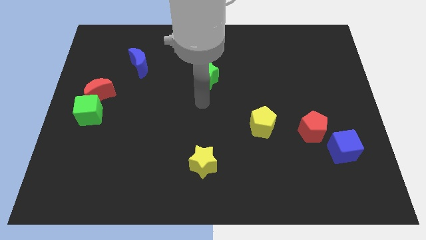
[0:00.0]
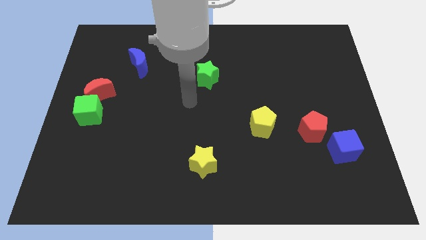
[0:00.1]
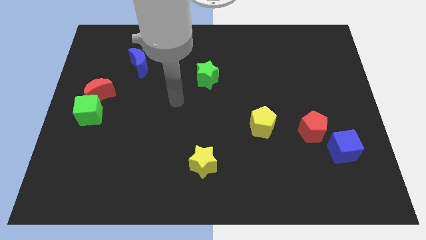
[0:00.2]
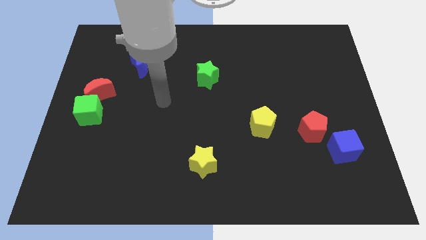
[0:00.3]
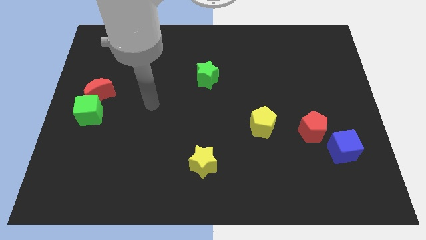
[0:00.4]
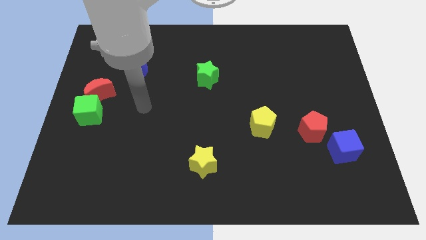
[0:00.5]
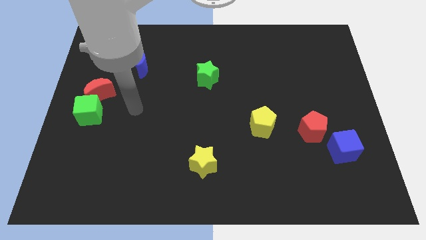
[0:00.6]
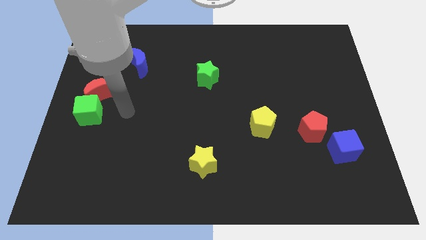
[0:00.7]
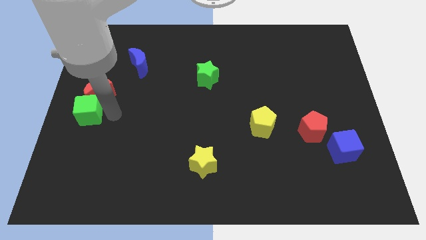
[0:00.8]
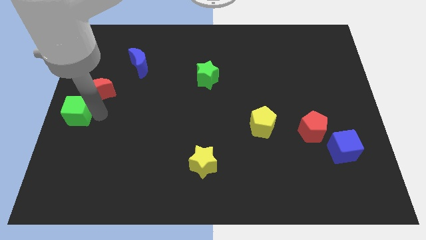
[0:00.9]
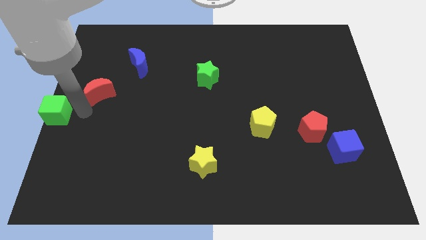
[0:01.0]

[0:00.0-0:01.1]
separate the red moon from the green cube

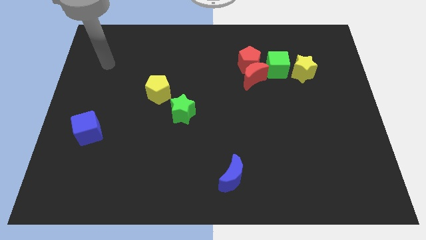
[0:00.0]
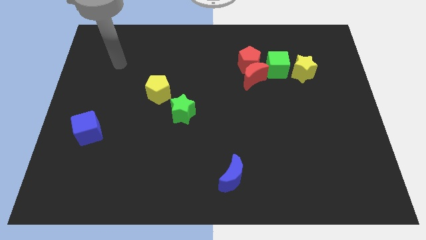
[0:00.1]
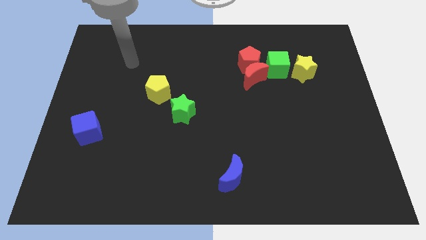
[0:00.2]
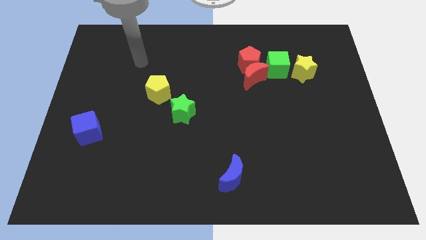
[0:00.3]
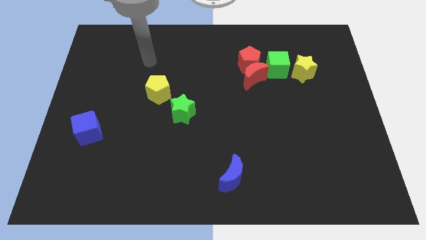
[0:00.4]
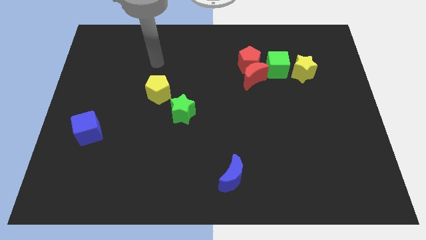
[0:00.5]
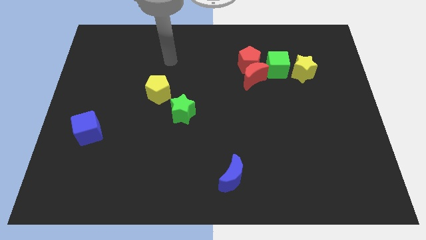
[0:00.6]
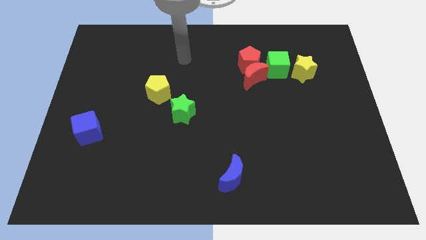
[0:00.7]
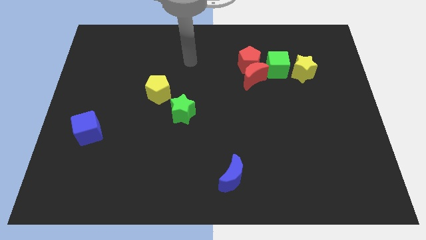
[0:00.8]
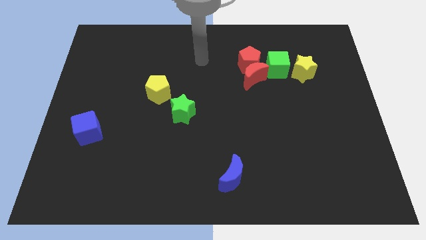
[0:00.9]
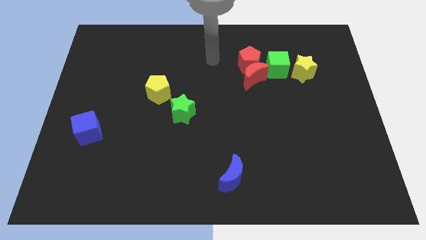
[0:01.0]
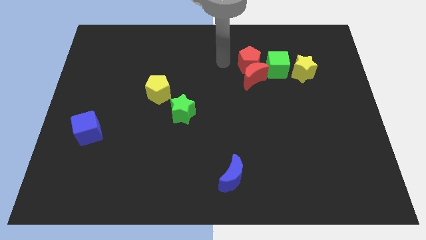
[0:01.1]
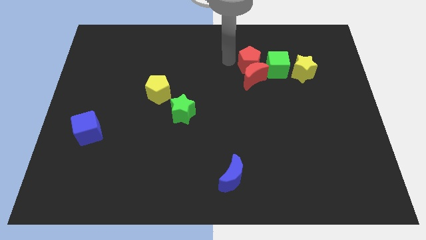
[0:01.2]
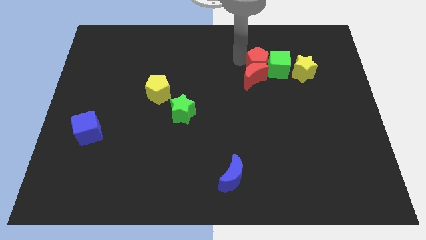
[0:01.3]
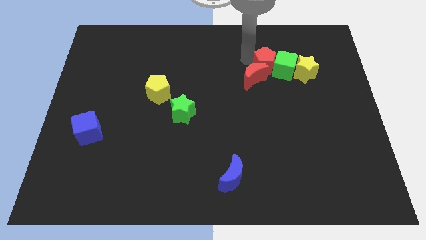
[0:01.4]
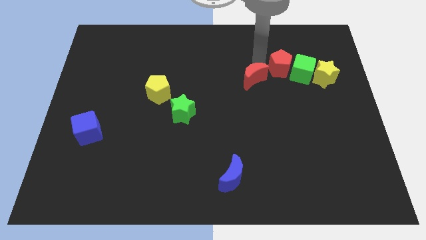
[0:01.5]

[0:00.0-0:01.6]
pull the red moon apart from the red pentagon and green cube

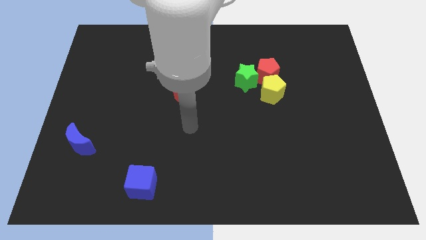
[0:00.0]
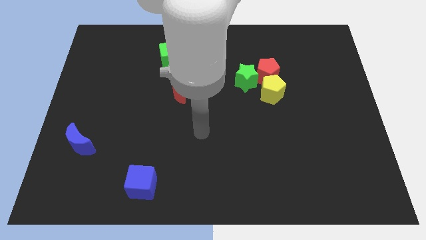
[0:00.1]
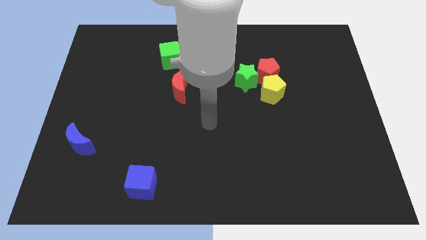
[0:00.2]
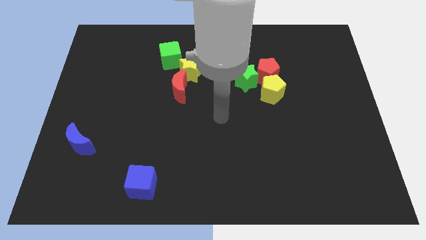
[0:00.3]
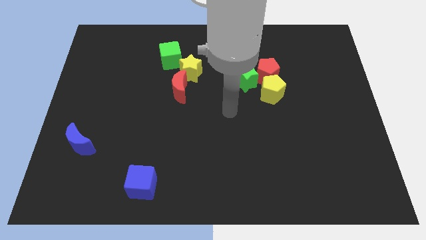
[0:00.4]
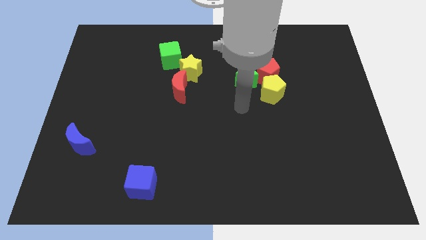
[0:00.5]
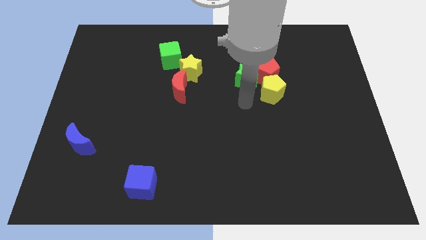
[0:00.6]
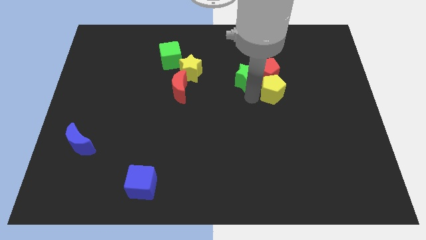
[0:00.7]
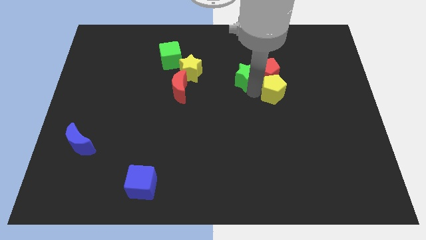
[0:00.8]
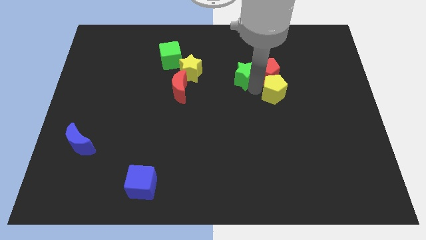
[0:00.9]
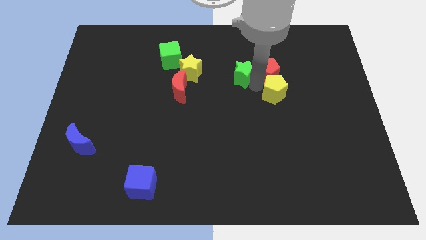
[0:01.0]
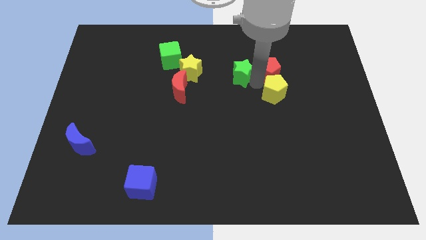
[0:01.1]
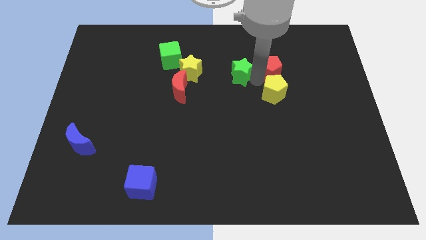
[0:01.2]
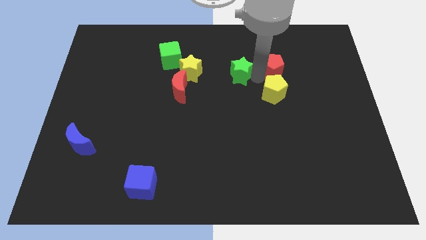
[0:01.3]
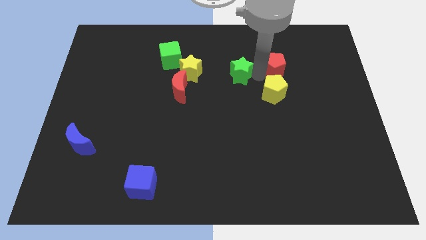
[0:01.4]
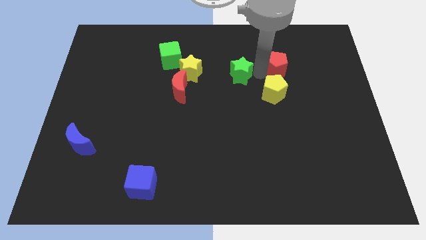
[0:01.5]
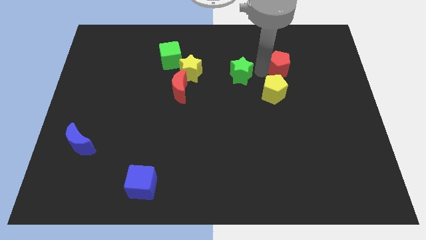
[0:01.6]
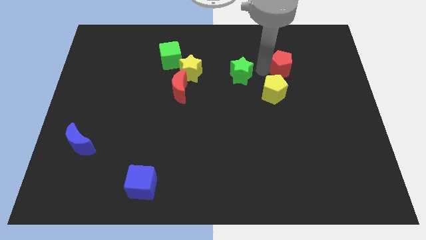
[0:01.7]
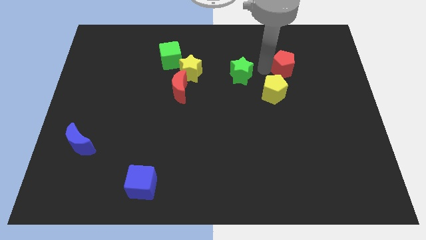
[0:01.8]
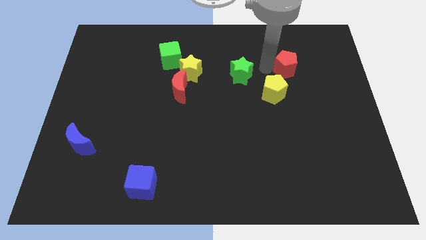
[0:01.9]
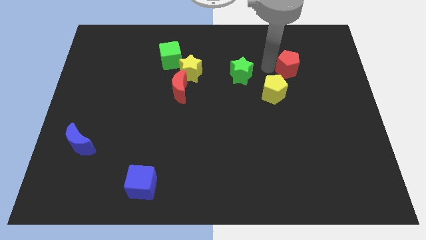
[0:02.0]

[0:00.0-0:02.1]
pull the red pentagon apart from the yellow pentagon and green star

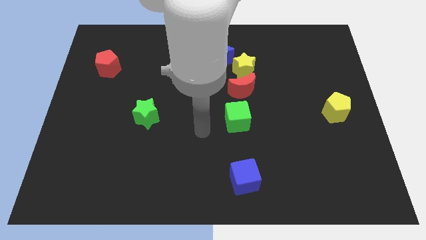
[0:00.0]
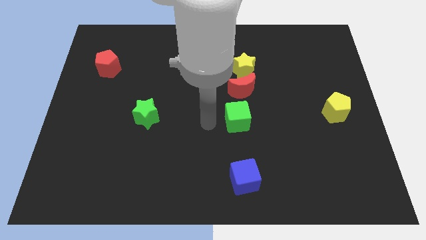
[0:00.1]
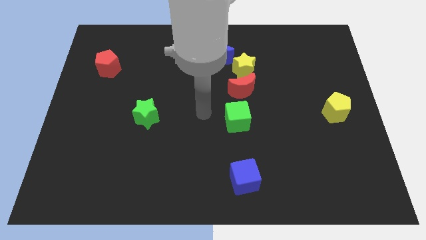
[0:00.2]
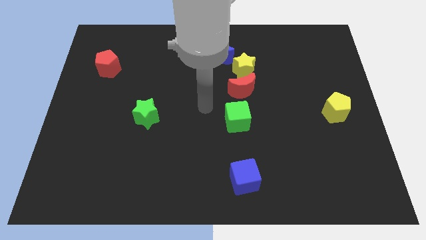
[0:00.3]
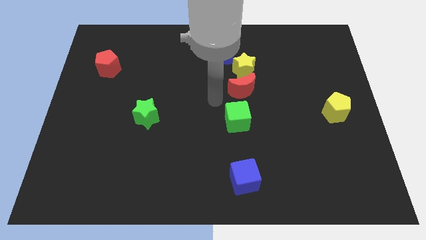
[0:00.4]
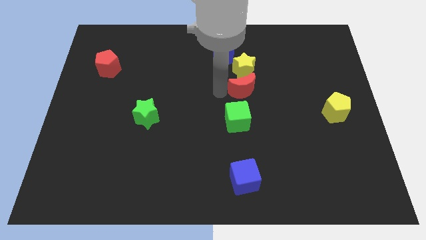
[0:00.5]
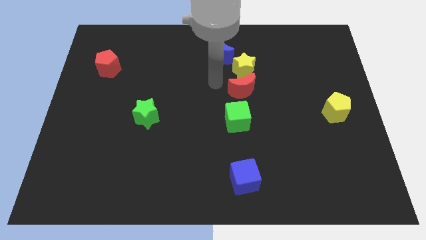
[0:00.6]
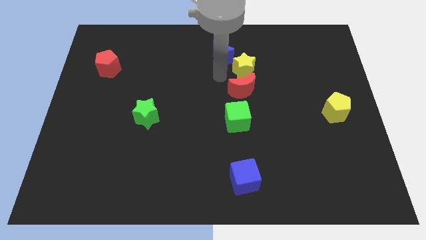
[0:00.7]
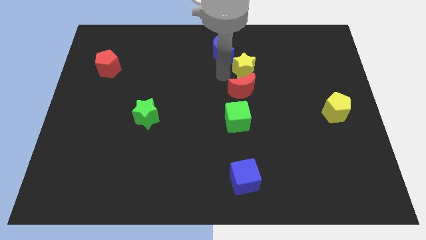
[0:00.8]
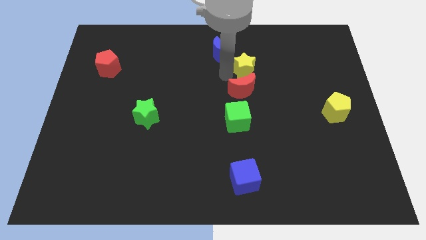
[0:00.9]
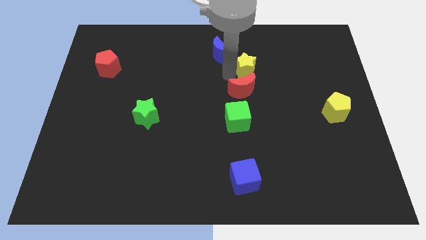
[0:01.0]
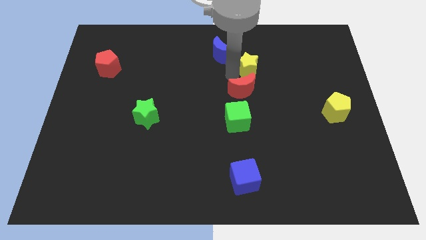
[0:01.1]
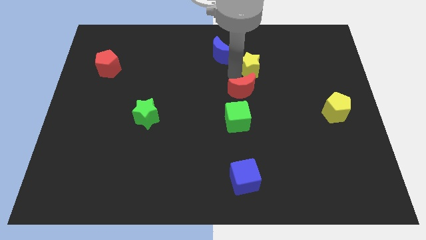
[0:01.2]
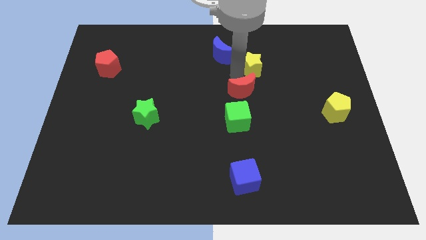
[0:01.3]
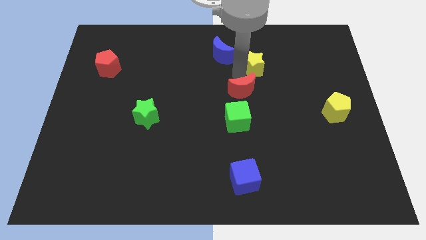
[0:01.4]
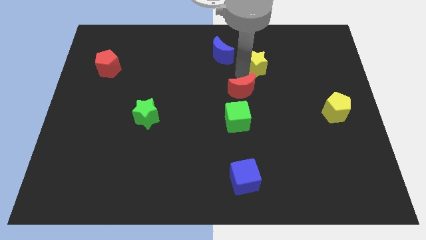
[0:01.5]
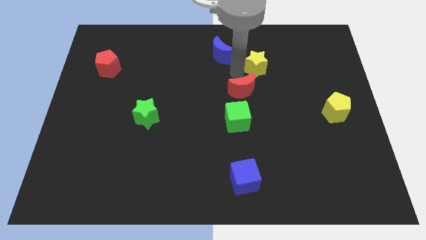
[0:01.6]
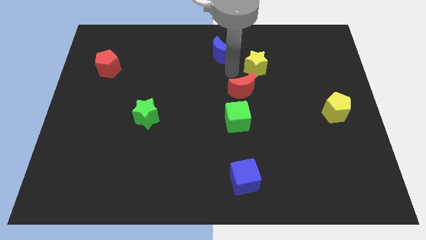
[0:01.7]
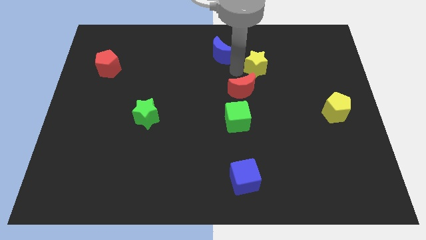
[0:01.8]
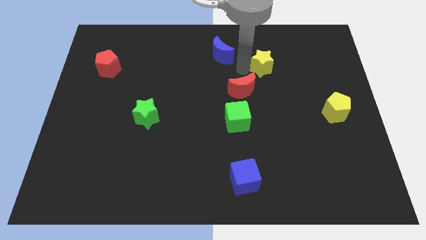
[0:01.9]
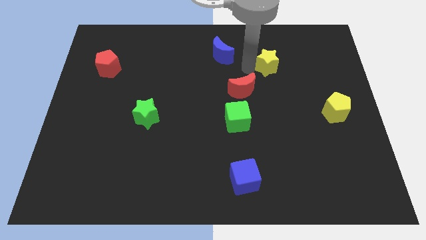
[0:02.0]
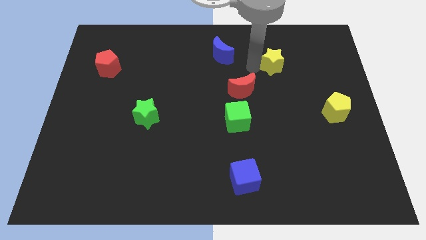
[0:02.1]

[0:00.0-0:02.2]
move the yellow star away from the red moon and blue moon

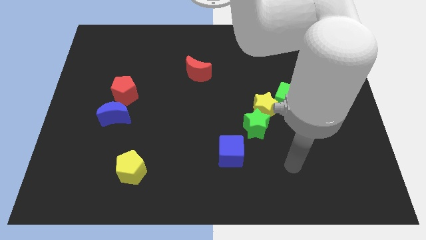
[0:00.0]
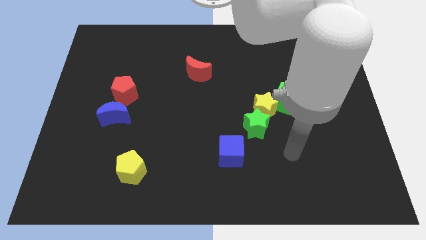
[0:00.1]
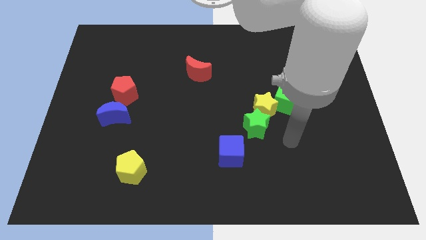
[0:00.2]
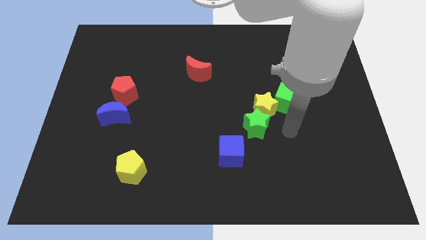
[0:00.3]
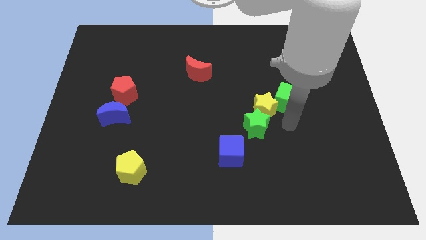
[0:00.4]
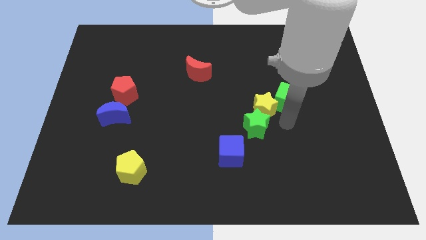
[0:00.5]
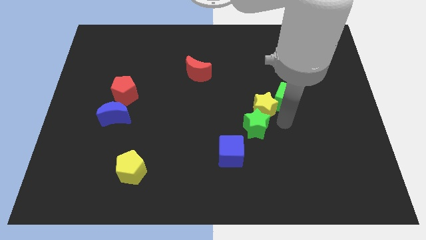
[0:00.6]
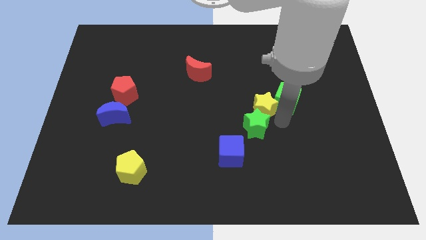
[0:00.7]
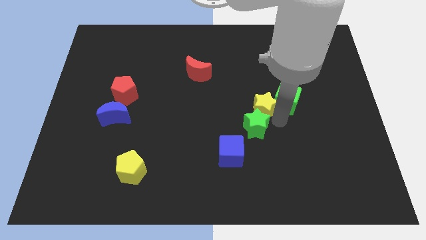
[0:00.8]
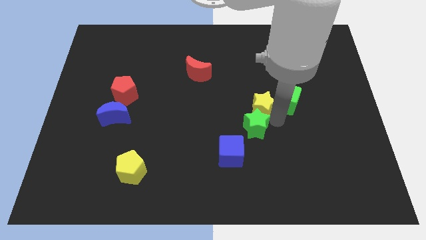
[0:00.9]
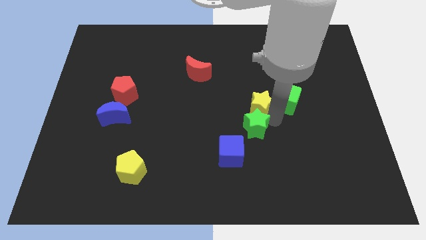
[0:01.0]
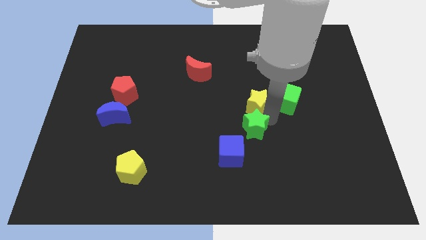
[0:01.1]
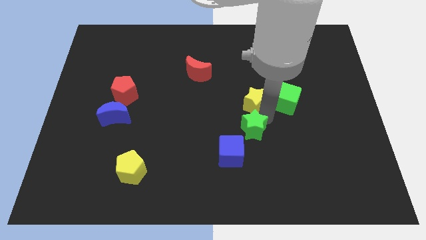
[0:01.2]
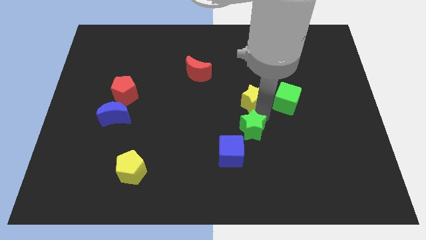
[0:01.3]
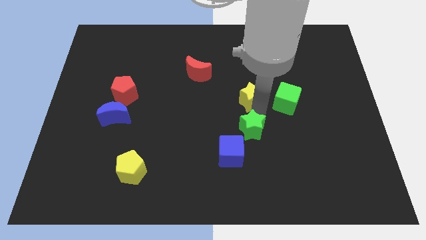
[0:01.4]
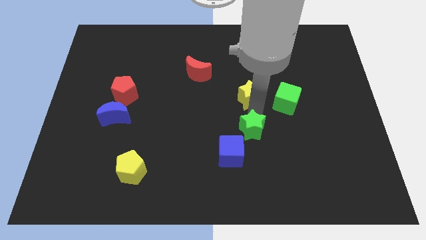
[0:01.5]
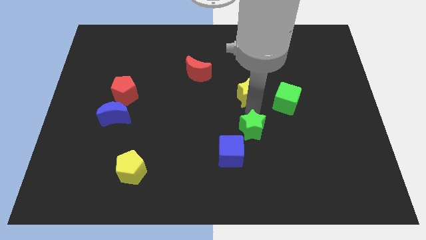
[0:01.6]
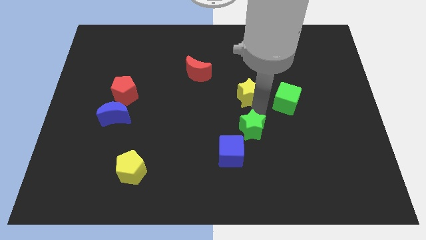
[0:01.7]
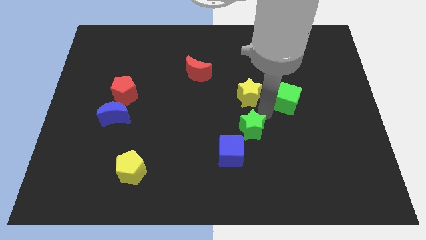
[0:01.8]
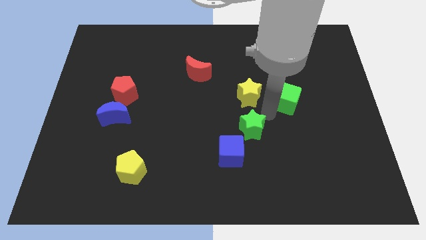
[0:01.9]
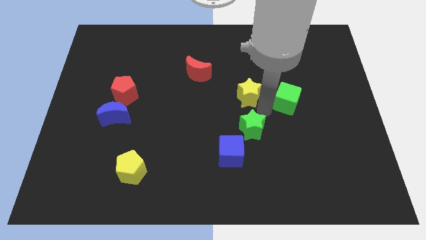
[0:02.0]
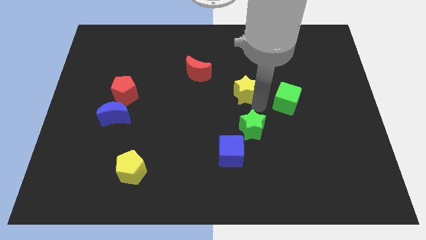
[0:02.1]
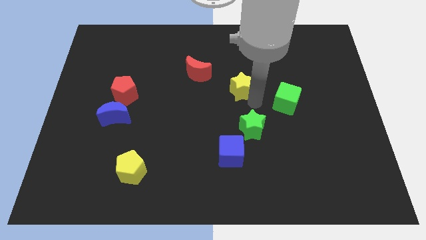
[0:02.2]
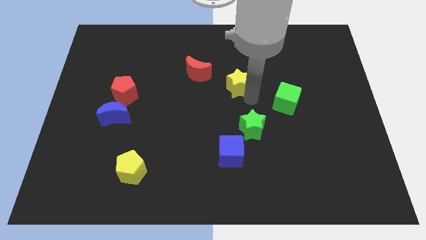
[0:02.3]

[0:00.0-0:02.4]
separate the yellow star from the green star and green cube
